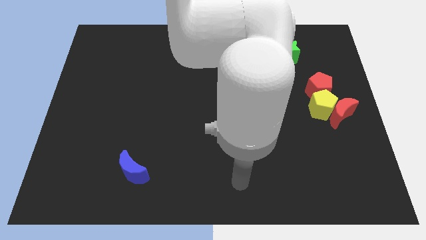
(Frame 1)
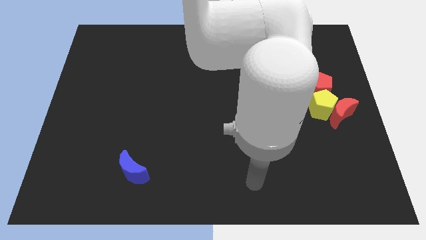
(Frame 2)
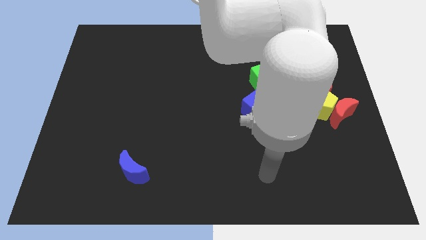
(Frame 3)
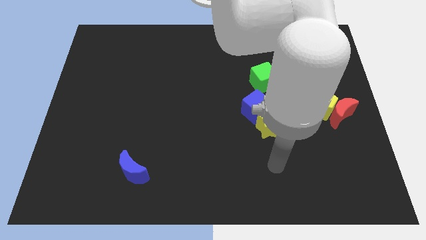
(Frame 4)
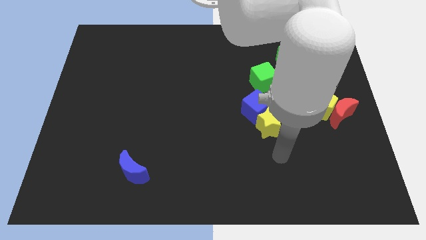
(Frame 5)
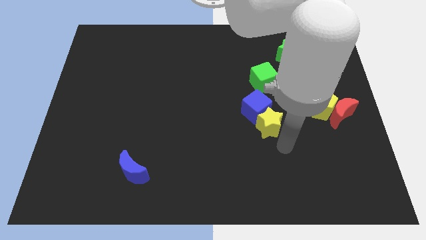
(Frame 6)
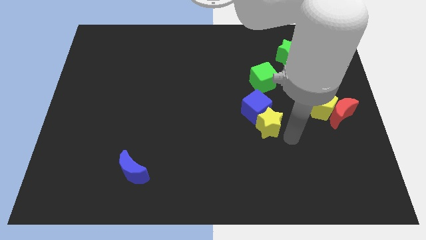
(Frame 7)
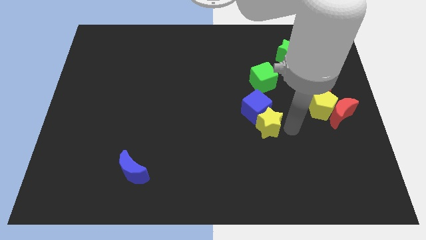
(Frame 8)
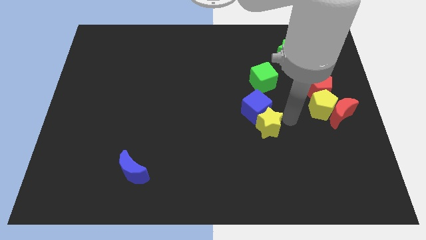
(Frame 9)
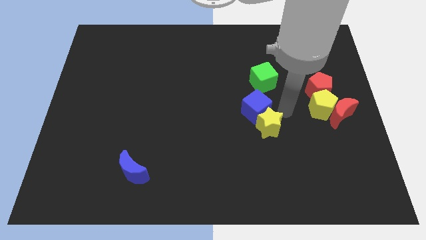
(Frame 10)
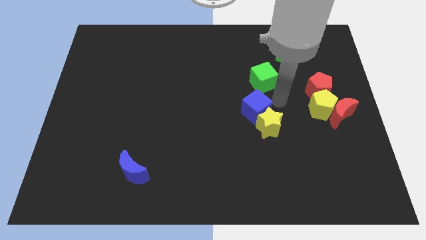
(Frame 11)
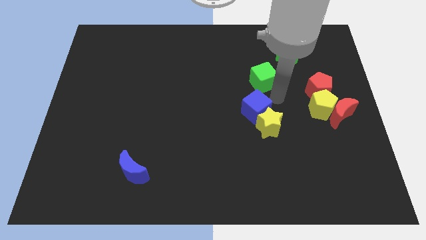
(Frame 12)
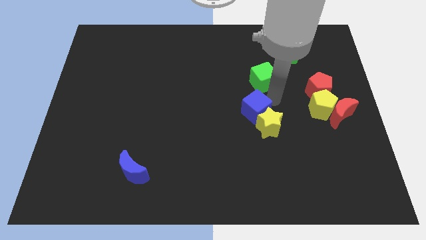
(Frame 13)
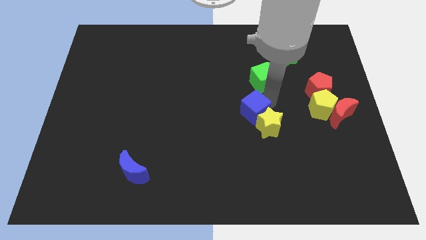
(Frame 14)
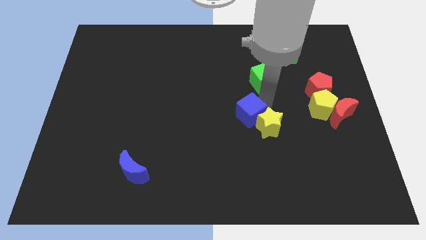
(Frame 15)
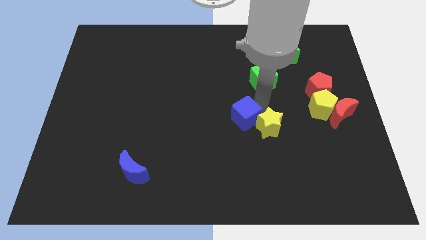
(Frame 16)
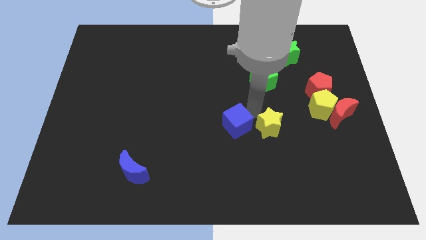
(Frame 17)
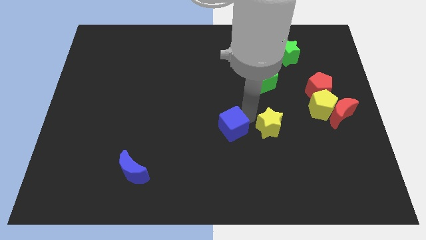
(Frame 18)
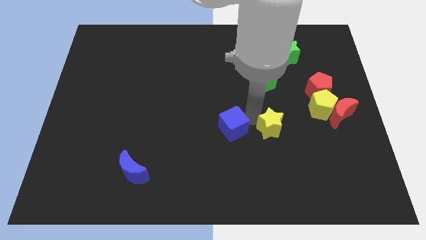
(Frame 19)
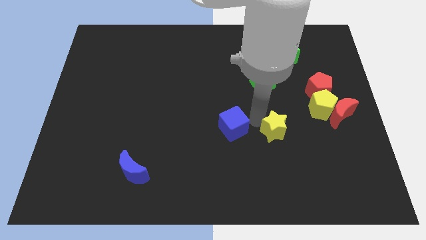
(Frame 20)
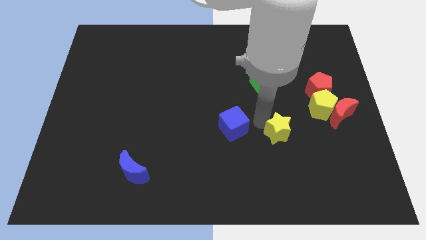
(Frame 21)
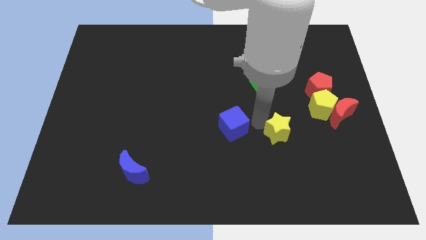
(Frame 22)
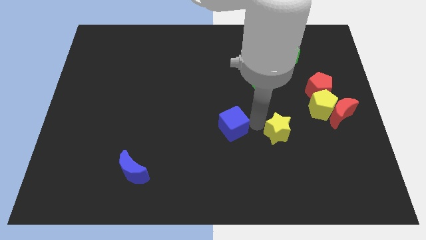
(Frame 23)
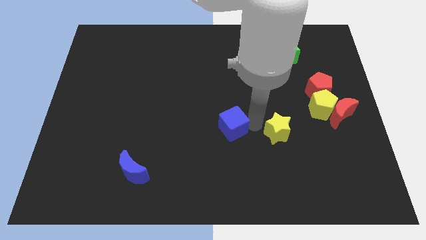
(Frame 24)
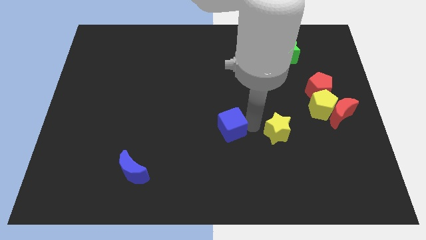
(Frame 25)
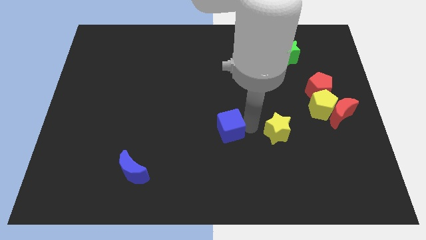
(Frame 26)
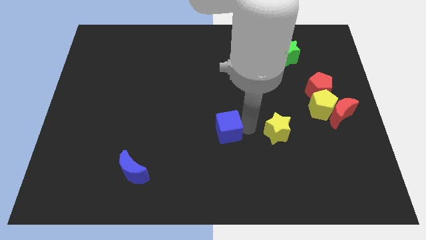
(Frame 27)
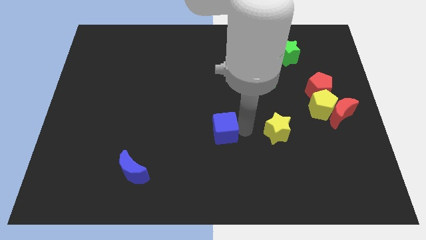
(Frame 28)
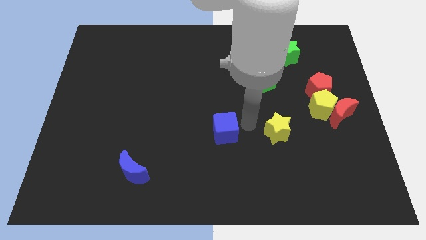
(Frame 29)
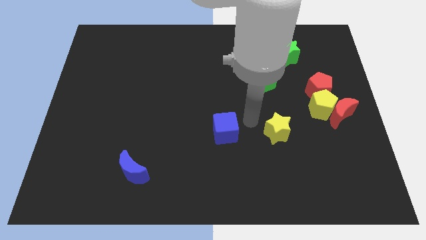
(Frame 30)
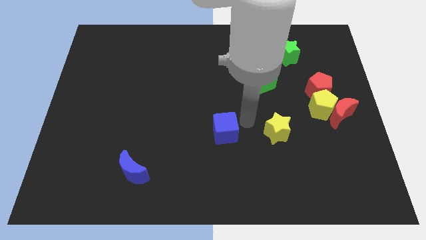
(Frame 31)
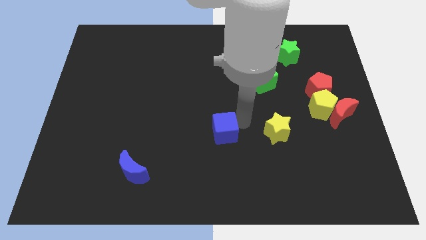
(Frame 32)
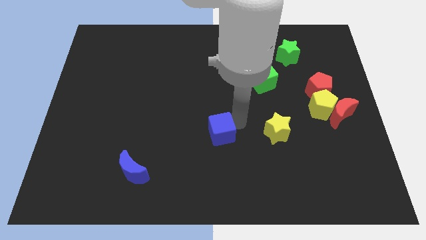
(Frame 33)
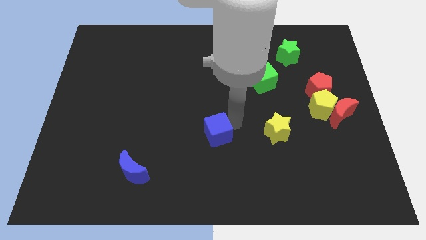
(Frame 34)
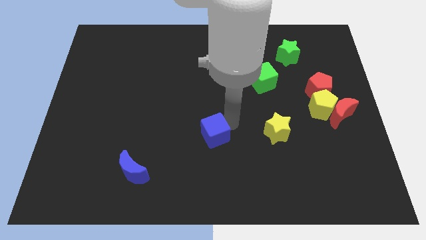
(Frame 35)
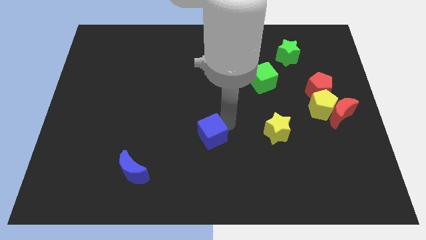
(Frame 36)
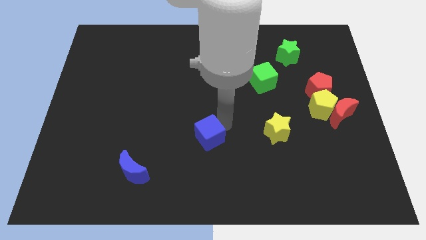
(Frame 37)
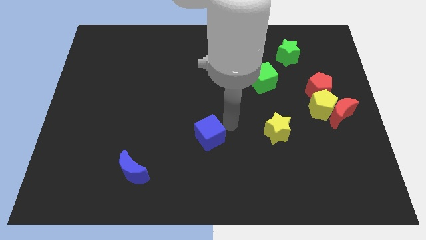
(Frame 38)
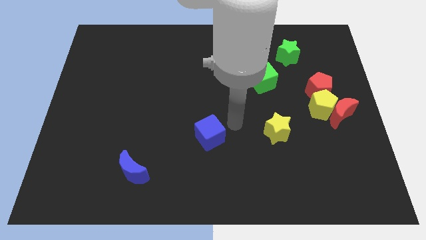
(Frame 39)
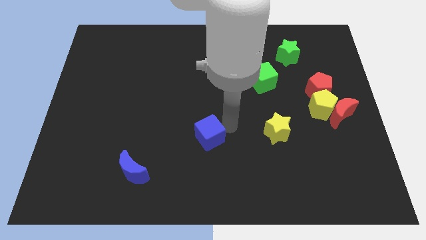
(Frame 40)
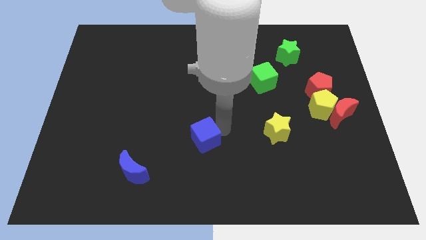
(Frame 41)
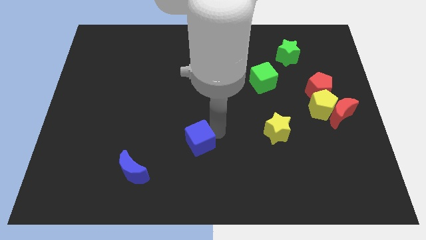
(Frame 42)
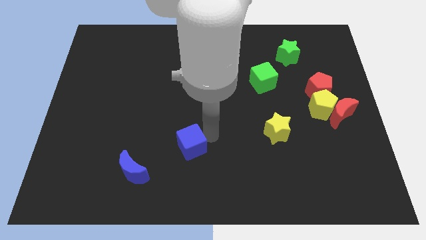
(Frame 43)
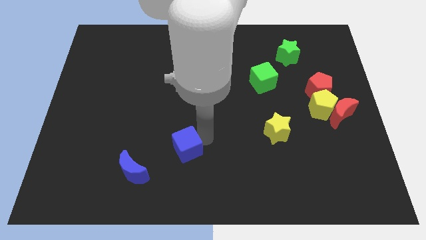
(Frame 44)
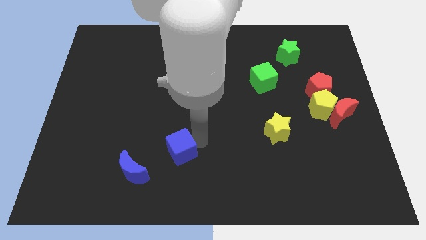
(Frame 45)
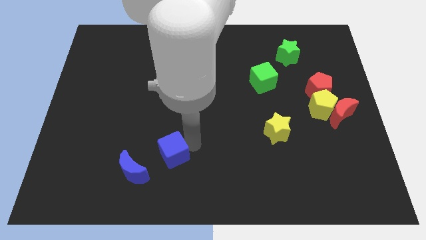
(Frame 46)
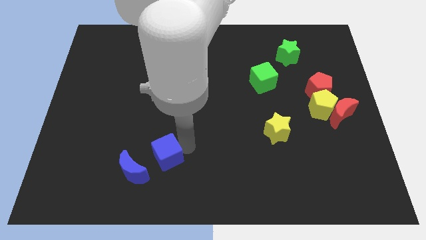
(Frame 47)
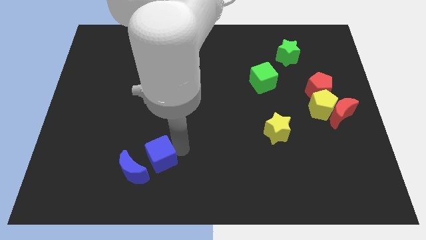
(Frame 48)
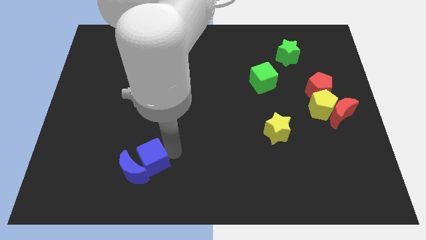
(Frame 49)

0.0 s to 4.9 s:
push the blue cube next to the blue moon

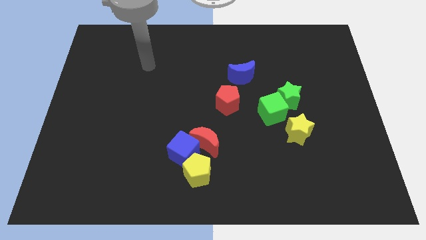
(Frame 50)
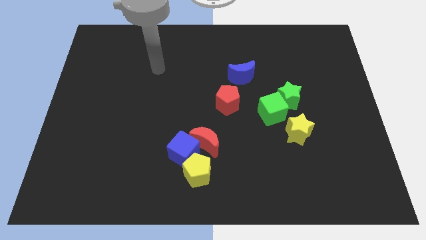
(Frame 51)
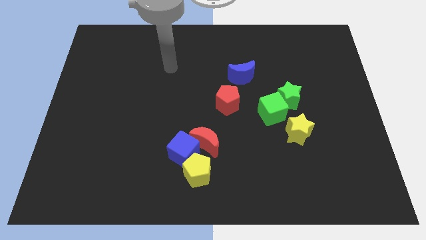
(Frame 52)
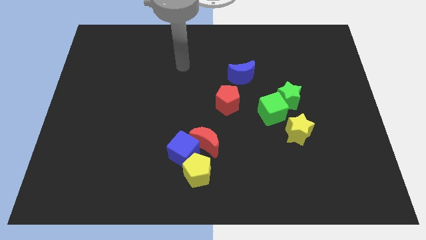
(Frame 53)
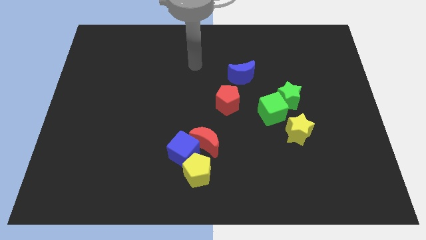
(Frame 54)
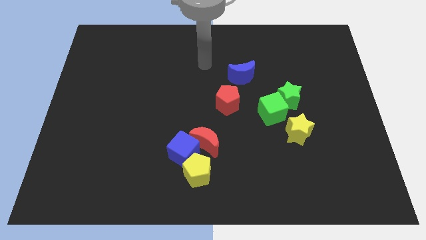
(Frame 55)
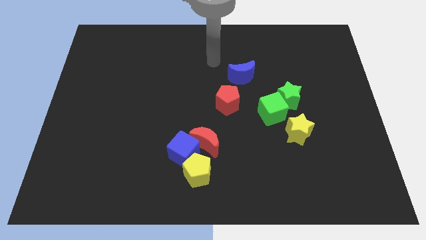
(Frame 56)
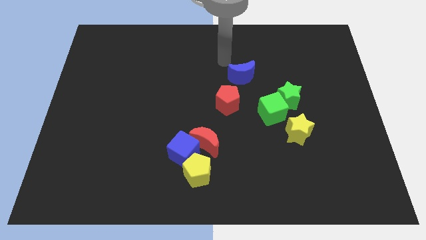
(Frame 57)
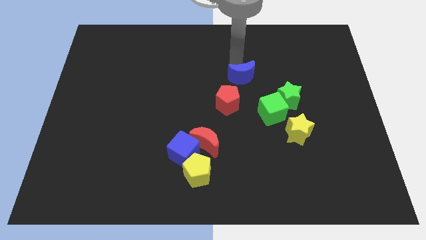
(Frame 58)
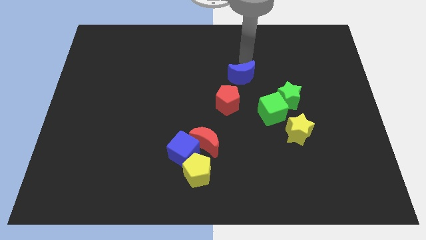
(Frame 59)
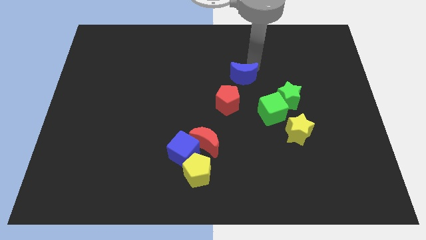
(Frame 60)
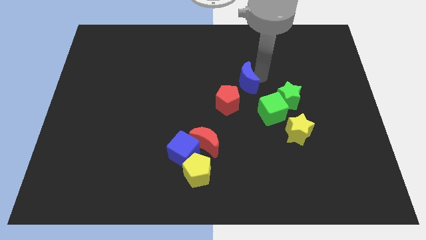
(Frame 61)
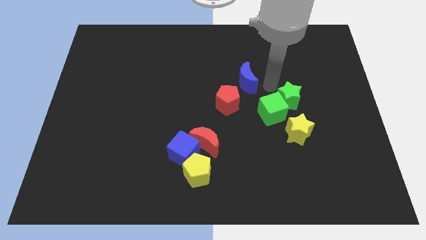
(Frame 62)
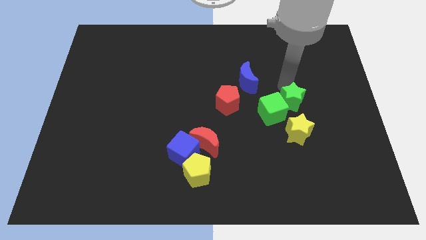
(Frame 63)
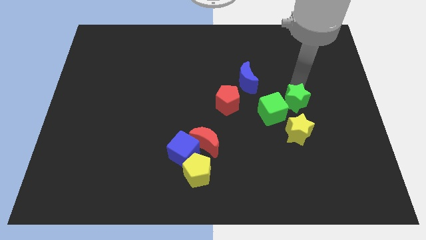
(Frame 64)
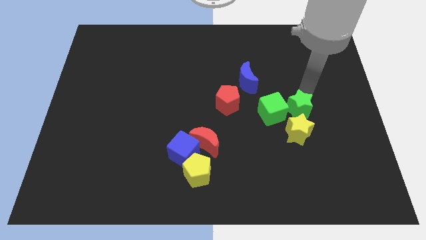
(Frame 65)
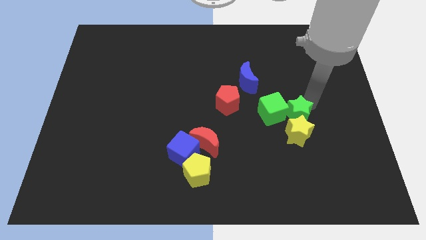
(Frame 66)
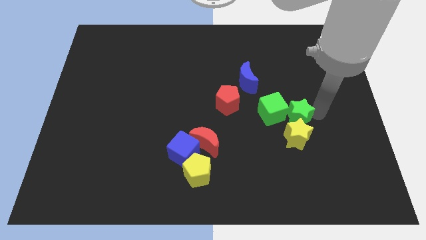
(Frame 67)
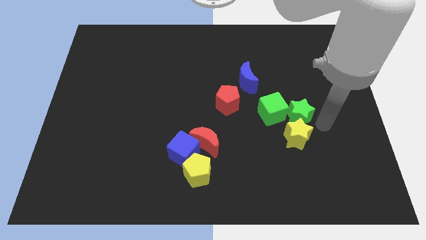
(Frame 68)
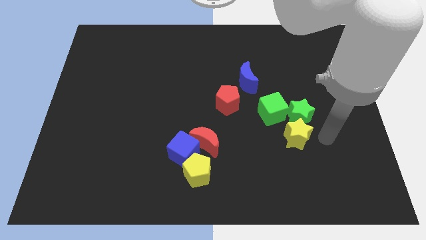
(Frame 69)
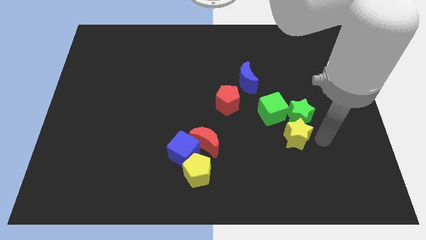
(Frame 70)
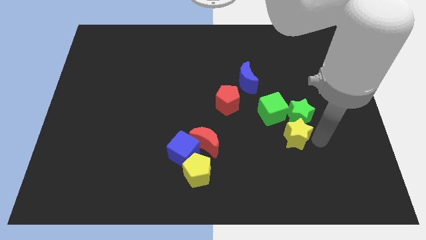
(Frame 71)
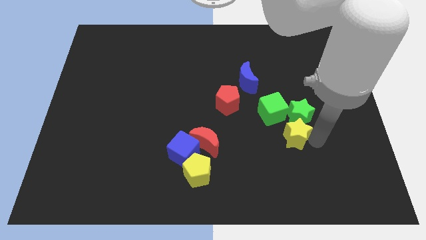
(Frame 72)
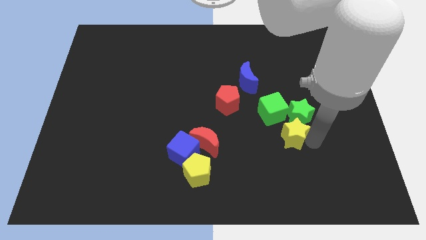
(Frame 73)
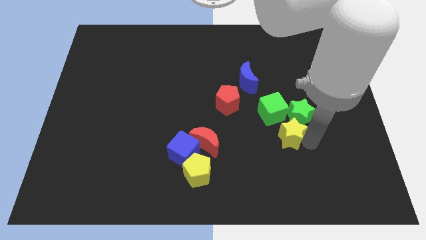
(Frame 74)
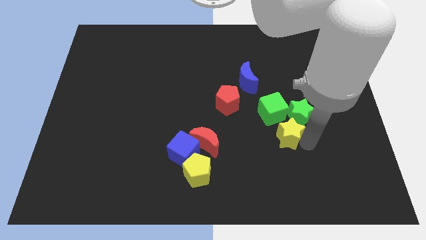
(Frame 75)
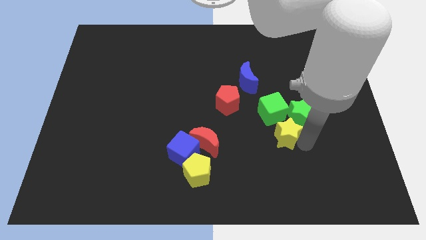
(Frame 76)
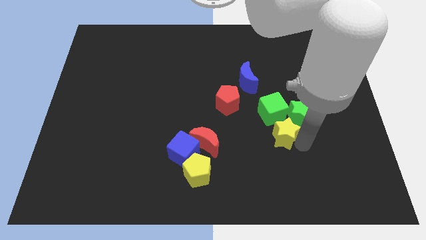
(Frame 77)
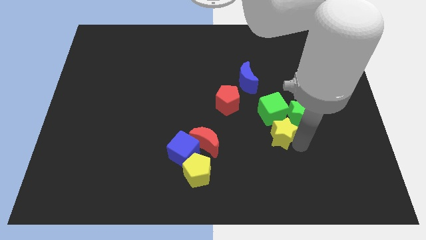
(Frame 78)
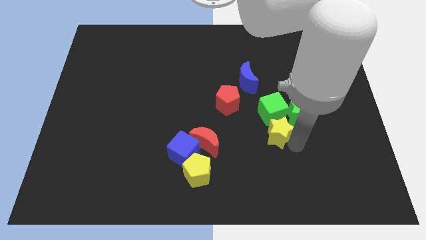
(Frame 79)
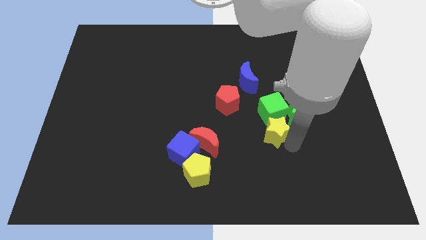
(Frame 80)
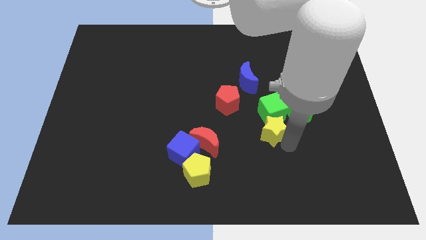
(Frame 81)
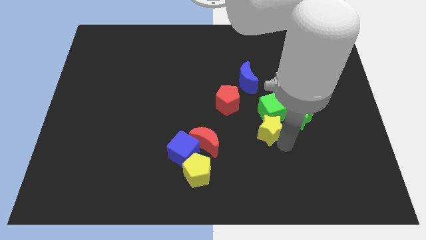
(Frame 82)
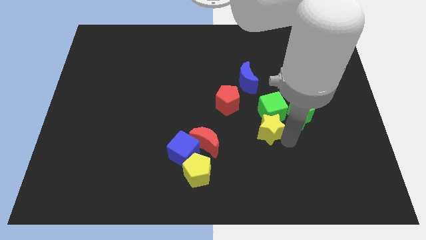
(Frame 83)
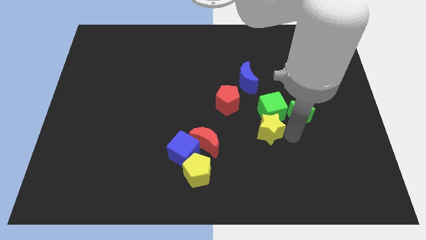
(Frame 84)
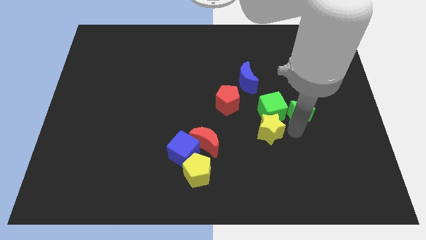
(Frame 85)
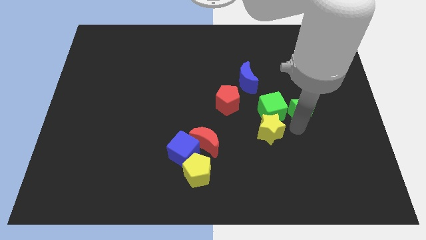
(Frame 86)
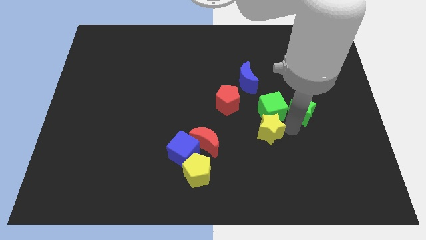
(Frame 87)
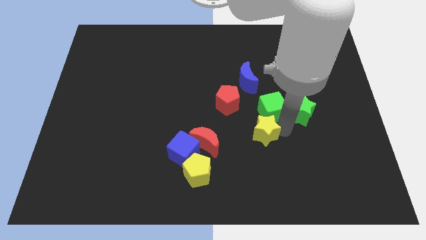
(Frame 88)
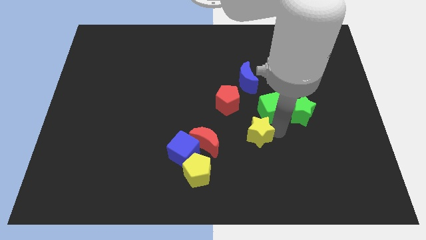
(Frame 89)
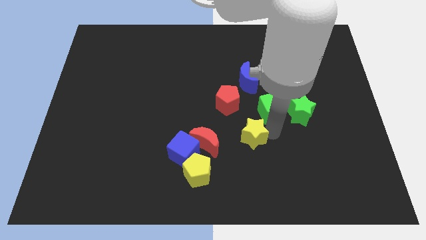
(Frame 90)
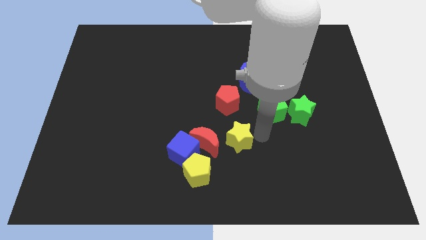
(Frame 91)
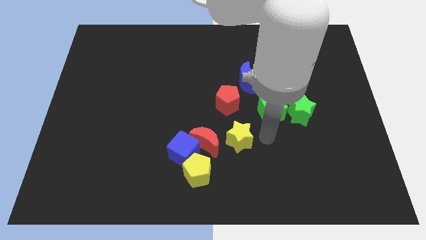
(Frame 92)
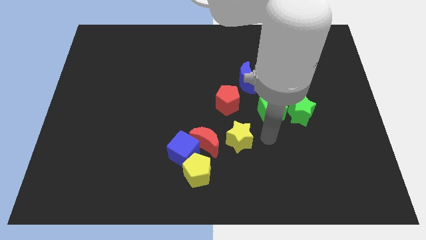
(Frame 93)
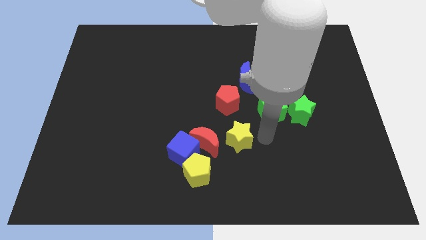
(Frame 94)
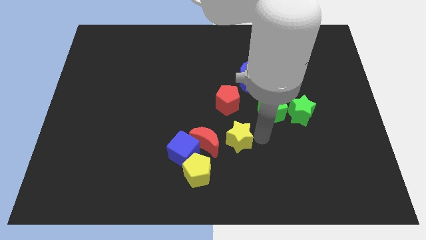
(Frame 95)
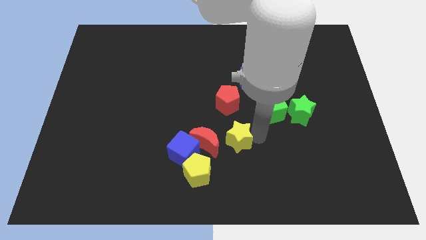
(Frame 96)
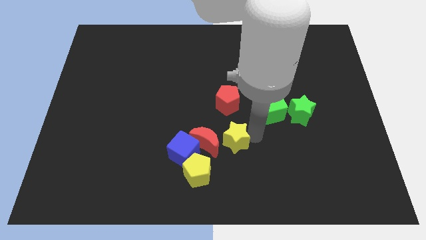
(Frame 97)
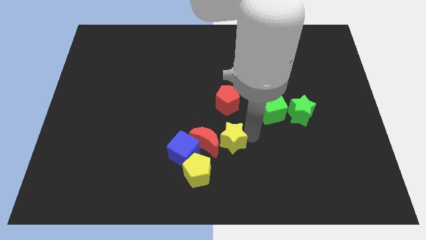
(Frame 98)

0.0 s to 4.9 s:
move the yellow star close to the red moon
